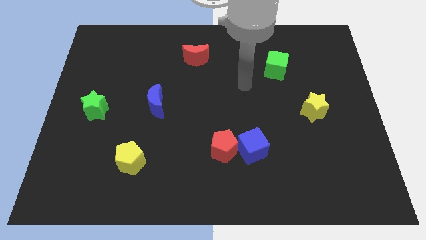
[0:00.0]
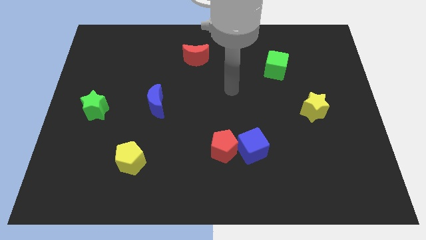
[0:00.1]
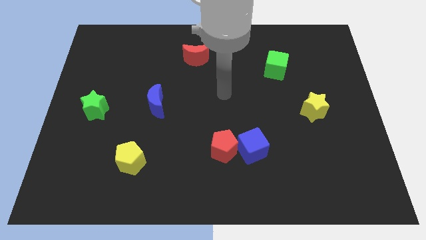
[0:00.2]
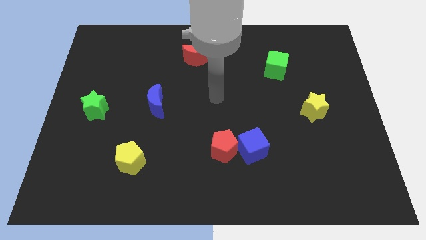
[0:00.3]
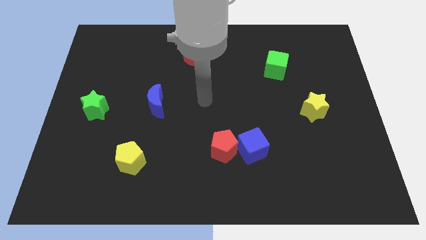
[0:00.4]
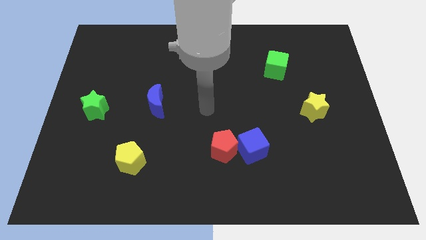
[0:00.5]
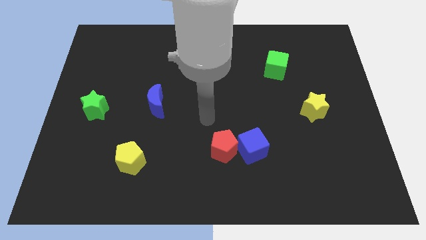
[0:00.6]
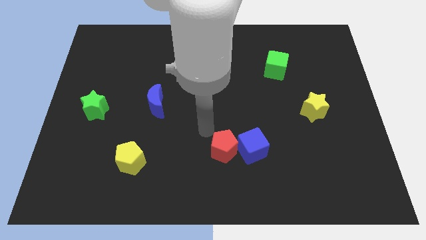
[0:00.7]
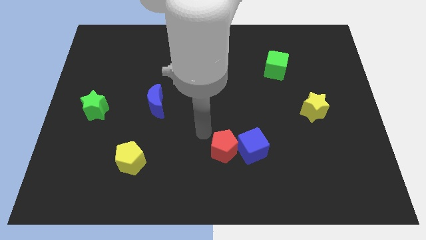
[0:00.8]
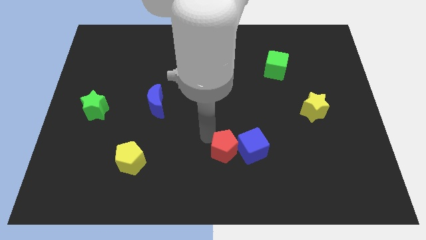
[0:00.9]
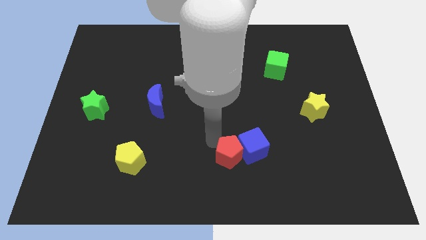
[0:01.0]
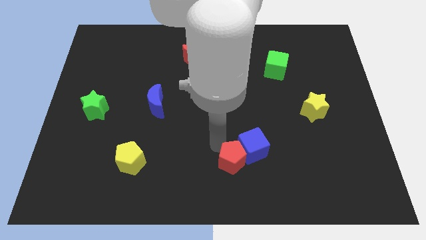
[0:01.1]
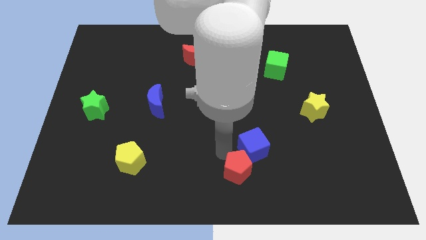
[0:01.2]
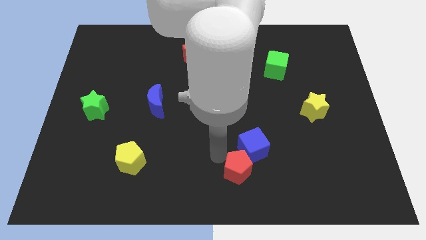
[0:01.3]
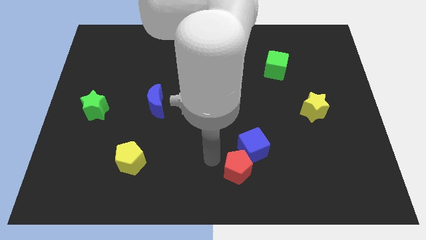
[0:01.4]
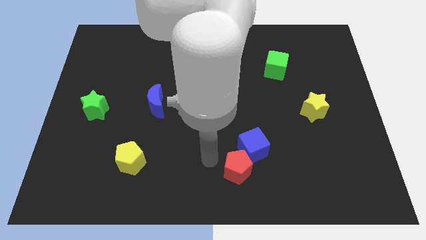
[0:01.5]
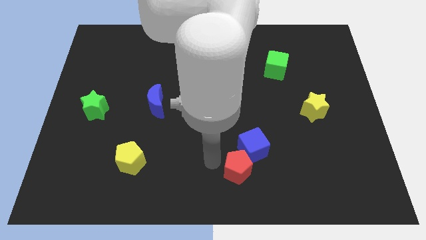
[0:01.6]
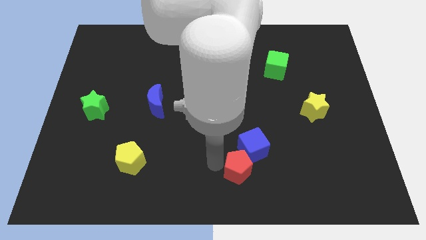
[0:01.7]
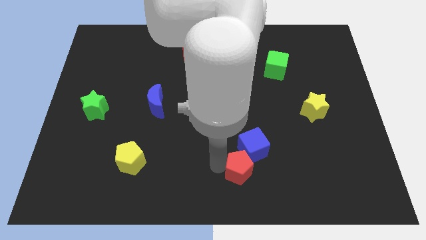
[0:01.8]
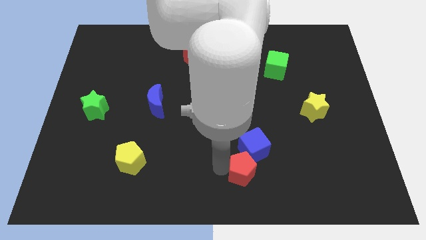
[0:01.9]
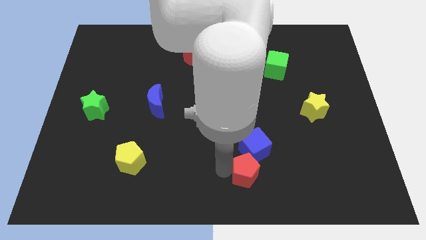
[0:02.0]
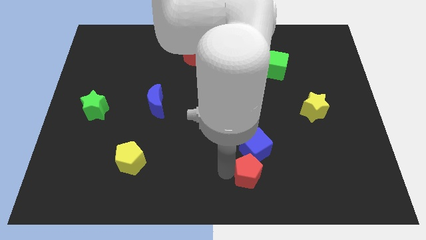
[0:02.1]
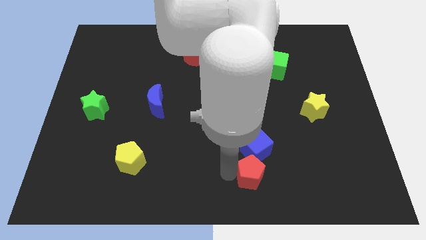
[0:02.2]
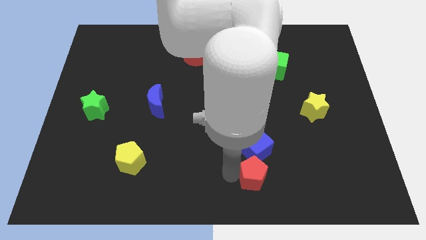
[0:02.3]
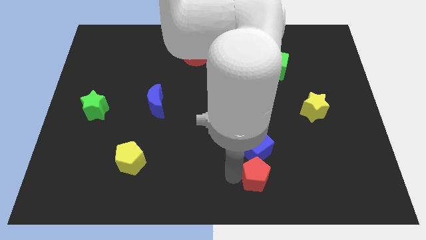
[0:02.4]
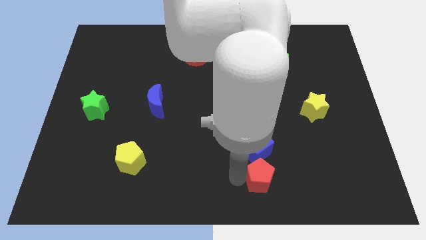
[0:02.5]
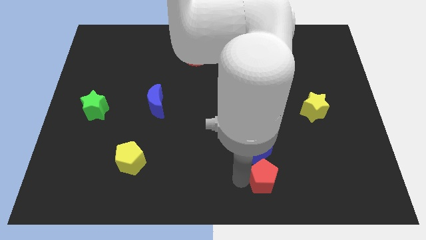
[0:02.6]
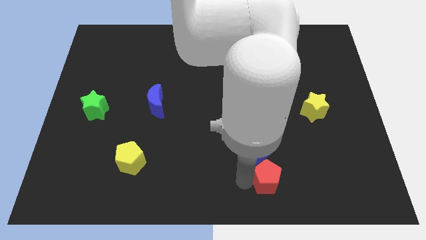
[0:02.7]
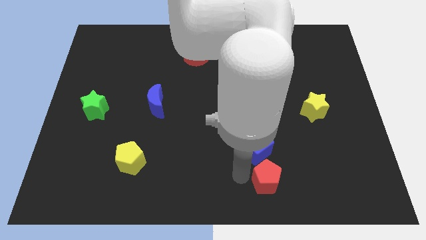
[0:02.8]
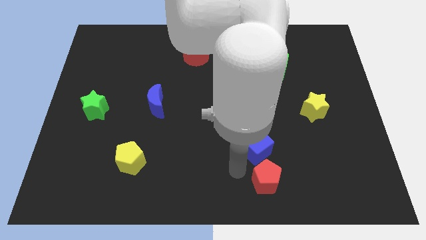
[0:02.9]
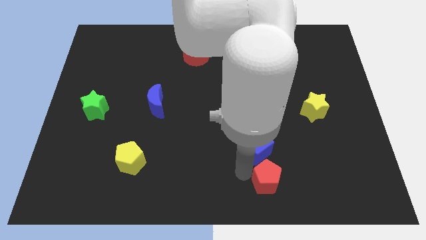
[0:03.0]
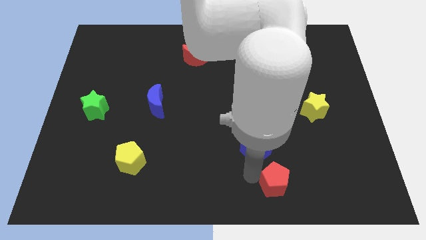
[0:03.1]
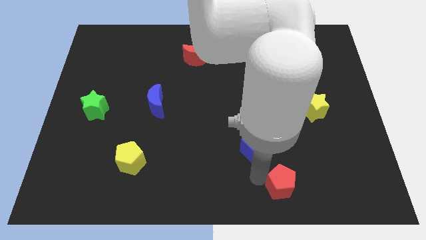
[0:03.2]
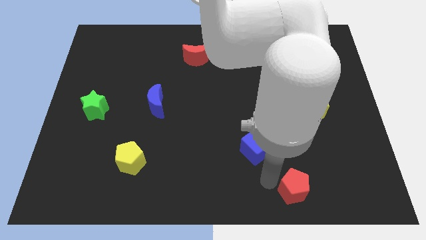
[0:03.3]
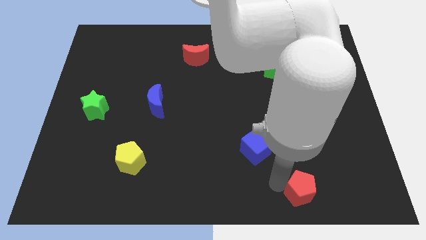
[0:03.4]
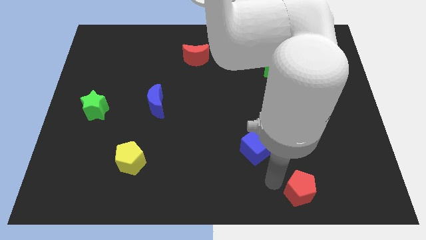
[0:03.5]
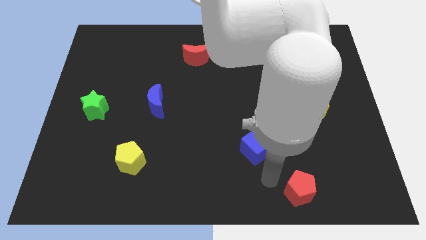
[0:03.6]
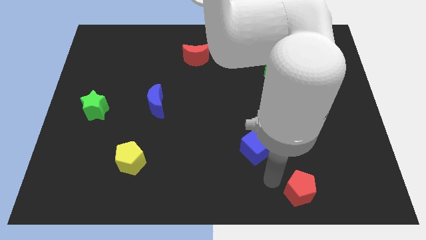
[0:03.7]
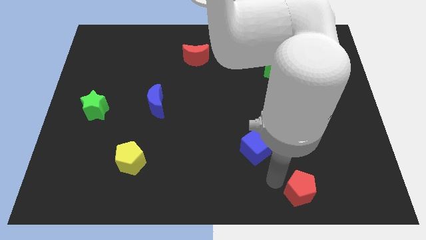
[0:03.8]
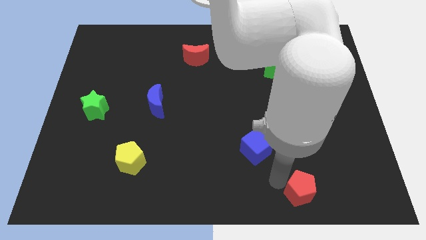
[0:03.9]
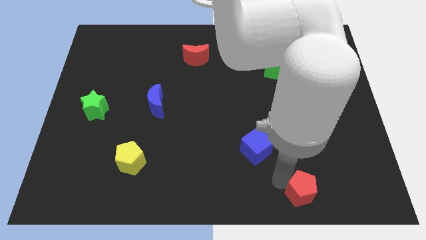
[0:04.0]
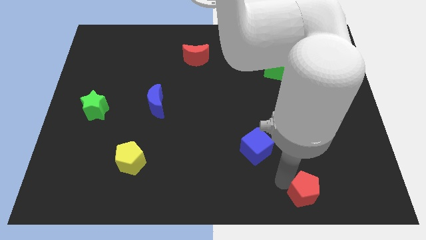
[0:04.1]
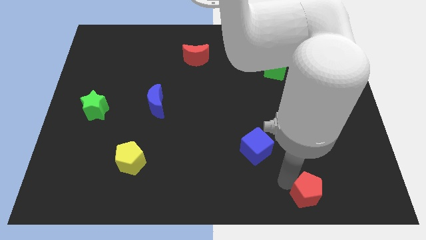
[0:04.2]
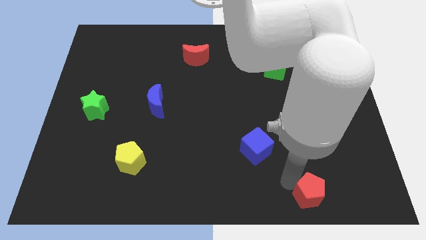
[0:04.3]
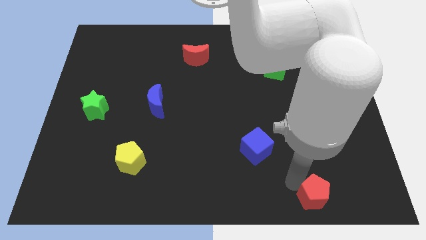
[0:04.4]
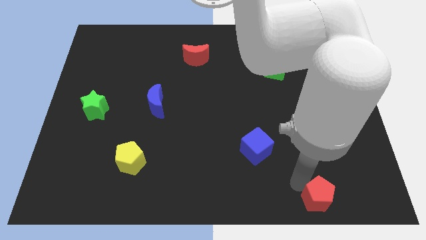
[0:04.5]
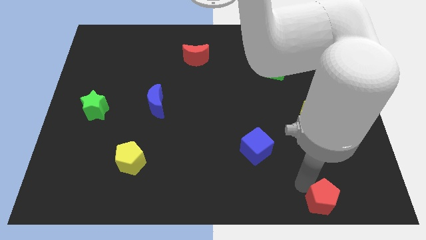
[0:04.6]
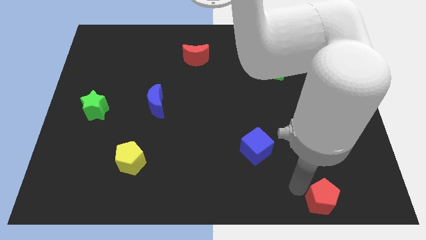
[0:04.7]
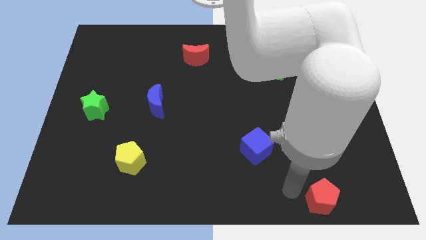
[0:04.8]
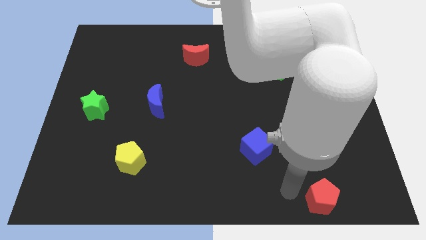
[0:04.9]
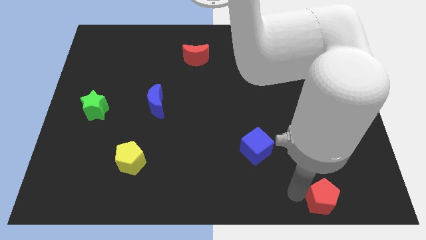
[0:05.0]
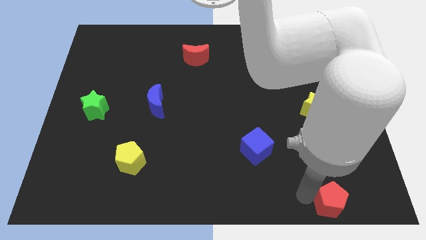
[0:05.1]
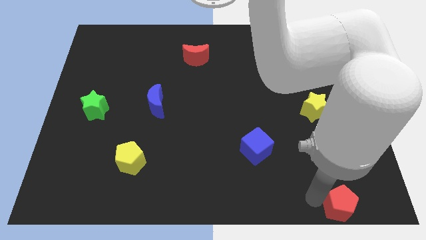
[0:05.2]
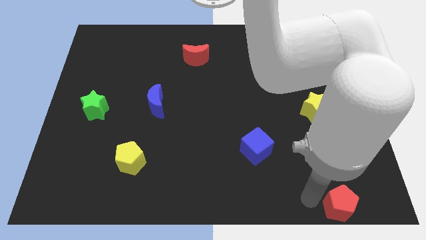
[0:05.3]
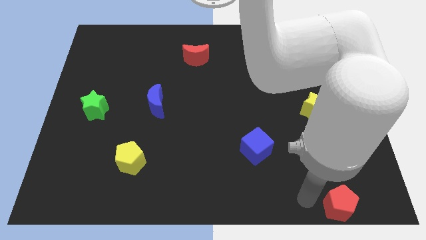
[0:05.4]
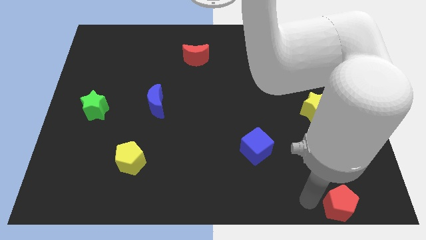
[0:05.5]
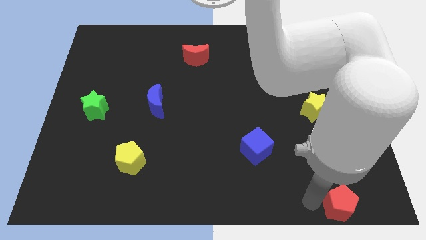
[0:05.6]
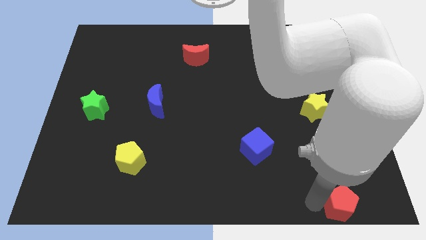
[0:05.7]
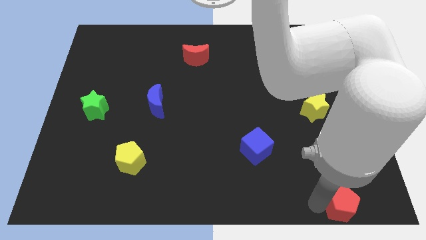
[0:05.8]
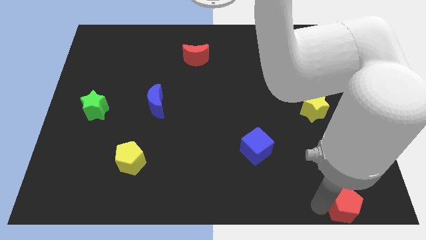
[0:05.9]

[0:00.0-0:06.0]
push the red pentagon to the bottom right of the board

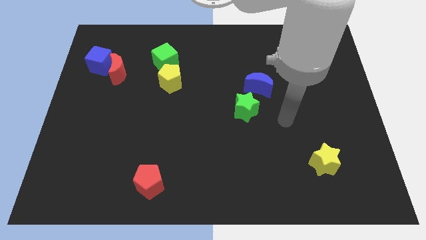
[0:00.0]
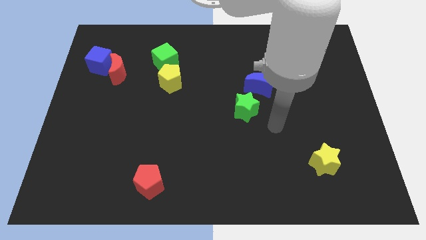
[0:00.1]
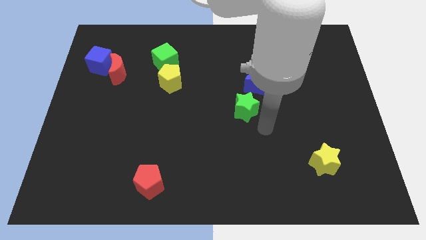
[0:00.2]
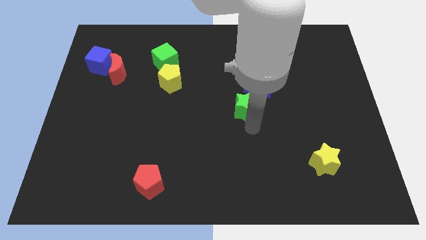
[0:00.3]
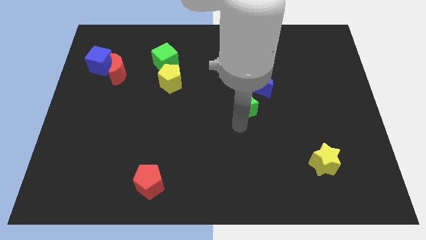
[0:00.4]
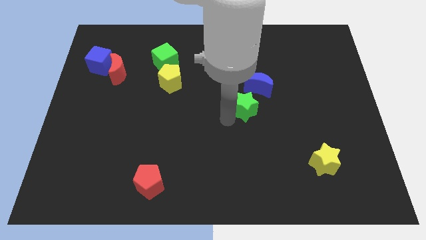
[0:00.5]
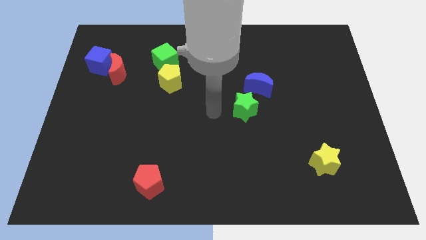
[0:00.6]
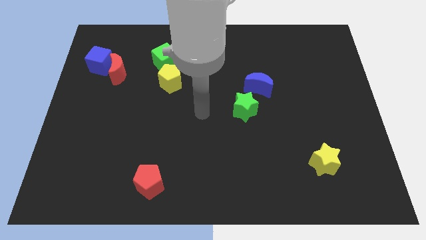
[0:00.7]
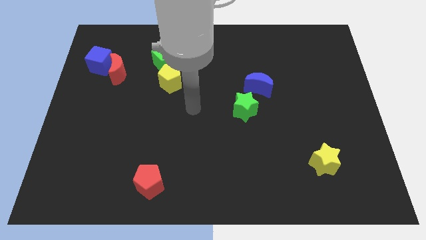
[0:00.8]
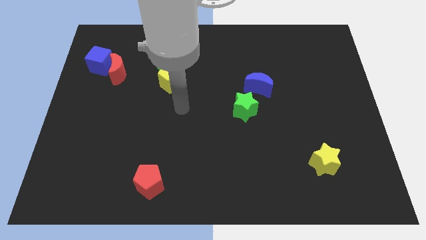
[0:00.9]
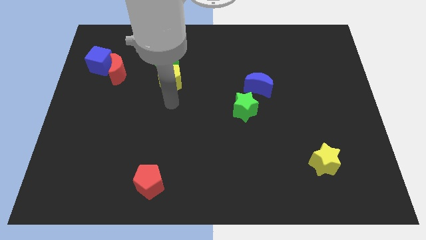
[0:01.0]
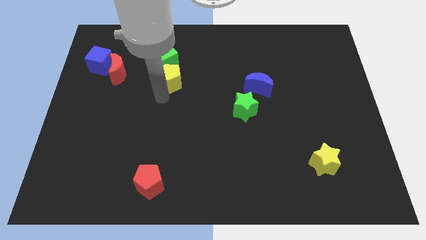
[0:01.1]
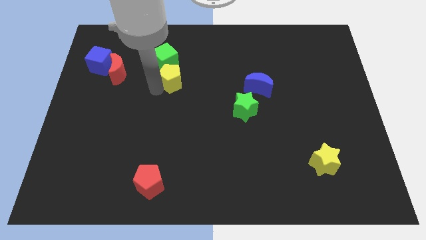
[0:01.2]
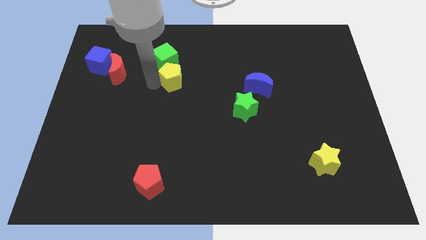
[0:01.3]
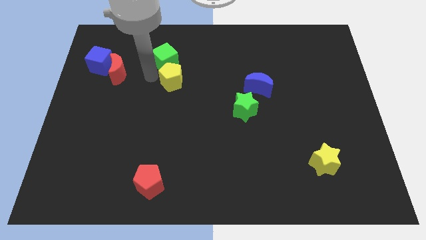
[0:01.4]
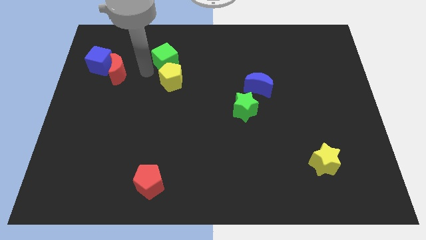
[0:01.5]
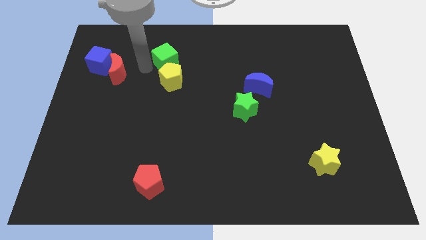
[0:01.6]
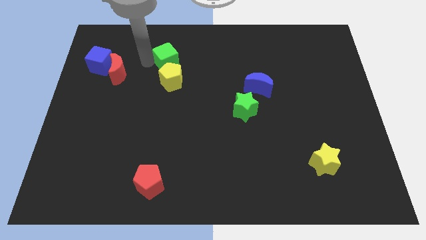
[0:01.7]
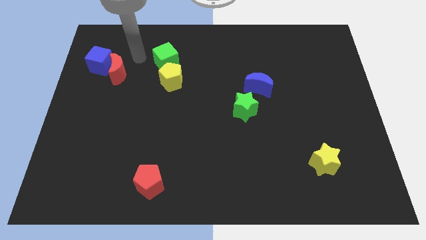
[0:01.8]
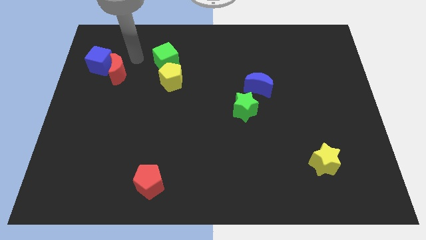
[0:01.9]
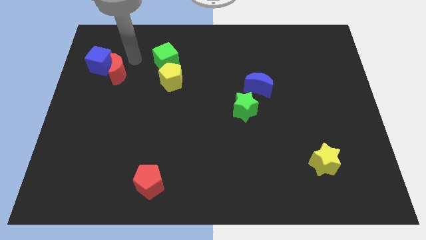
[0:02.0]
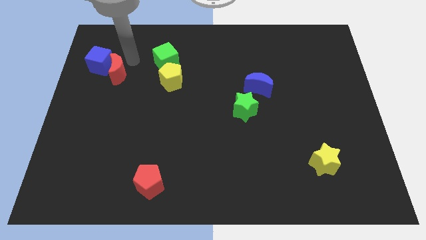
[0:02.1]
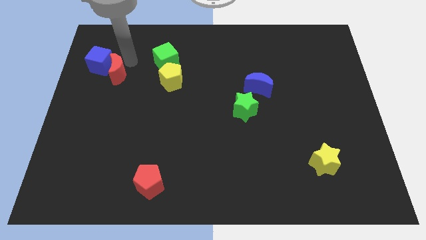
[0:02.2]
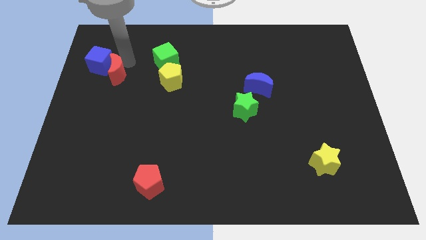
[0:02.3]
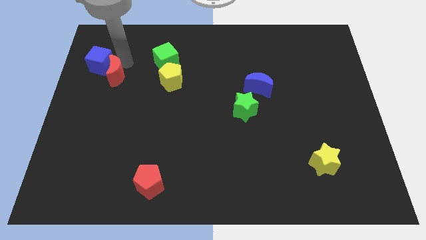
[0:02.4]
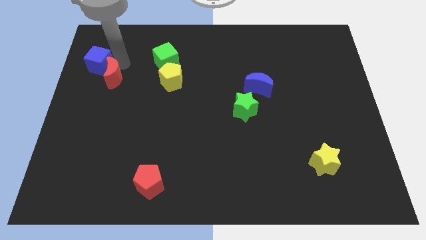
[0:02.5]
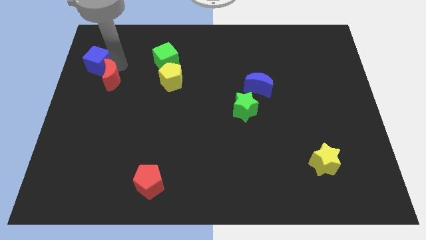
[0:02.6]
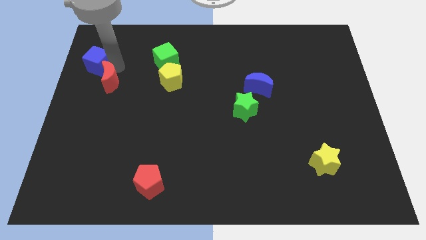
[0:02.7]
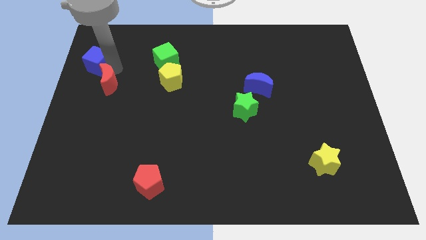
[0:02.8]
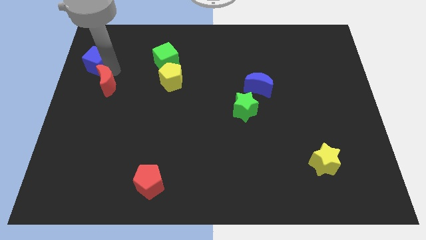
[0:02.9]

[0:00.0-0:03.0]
push the red moon to the center left

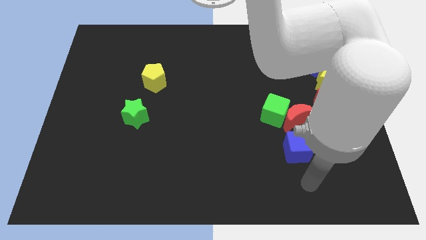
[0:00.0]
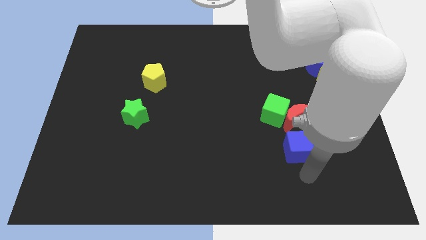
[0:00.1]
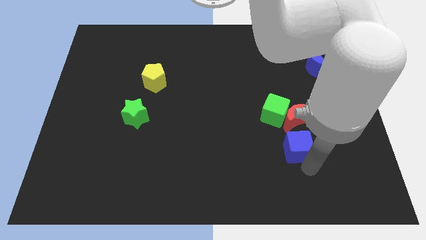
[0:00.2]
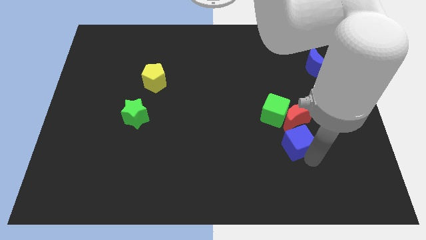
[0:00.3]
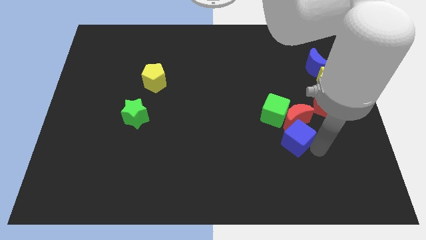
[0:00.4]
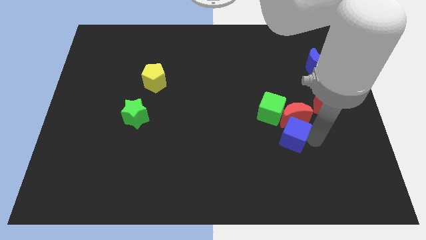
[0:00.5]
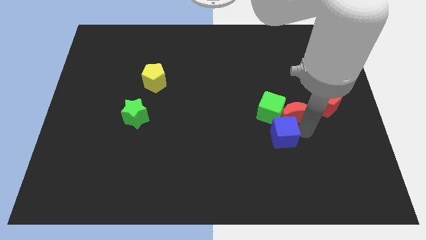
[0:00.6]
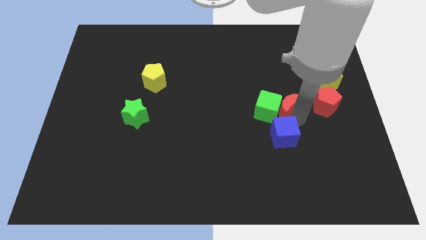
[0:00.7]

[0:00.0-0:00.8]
push the green cube to the middle of the board
